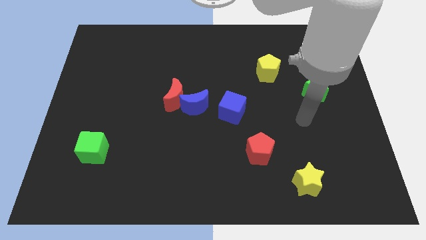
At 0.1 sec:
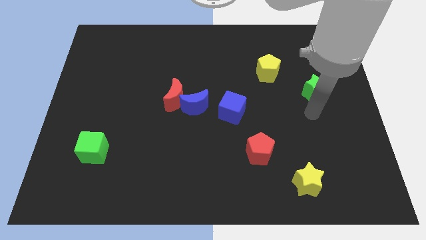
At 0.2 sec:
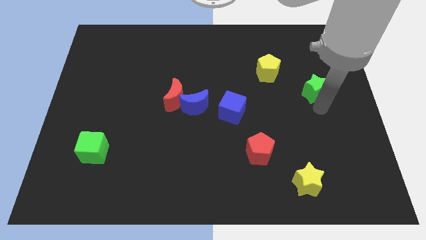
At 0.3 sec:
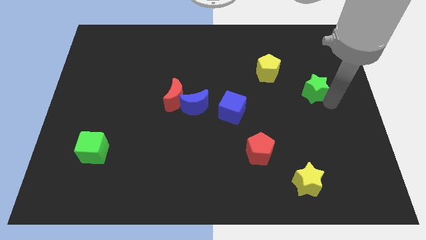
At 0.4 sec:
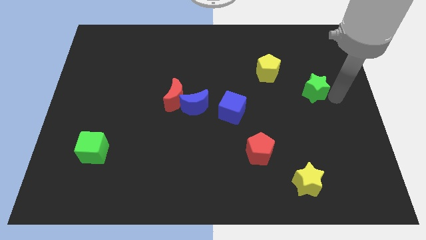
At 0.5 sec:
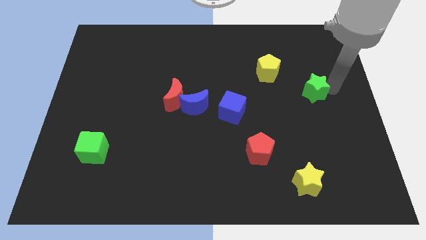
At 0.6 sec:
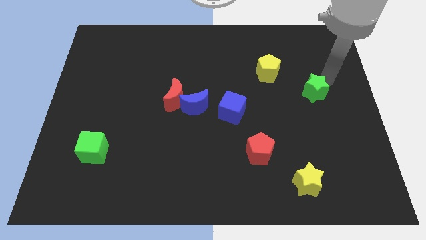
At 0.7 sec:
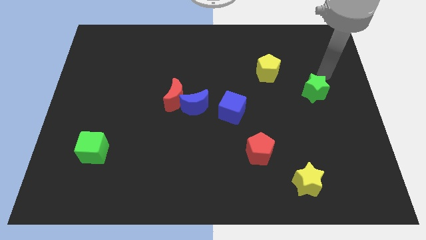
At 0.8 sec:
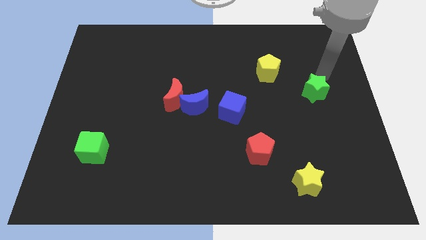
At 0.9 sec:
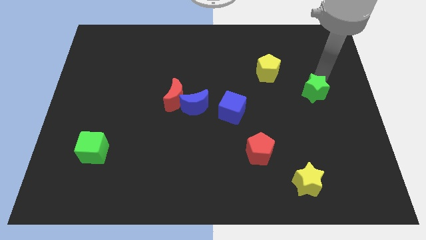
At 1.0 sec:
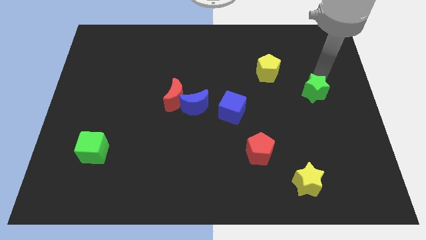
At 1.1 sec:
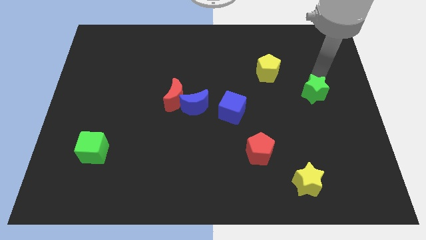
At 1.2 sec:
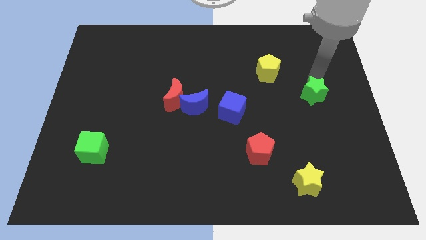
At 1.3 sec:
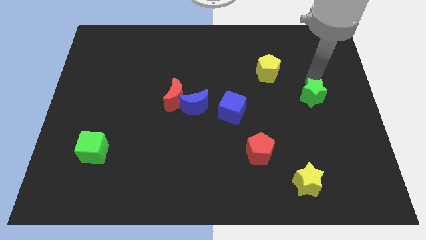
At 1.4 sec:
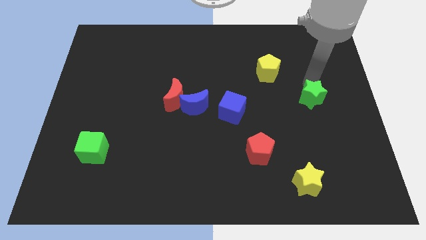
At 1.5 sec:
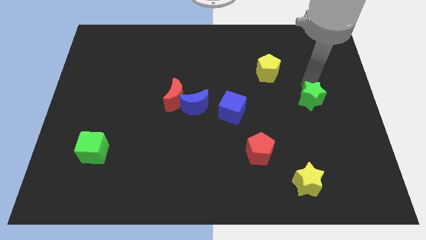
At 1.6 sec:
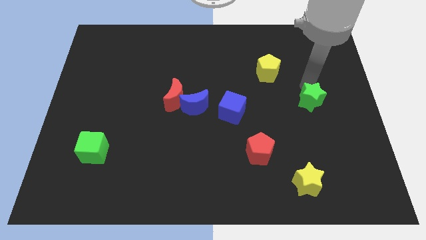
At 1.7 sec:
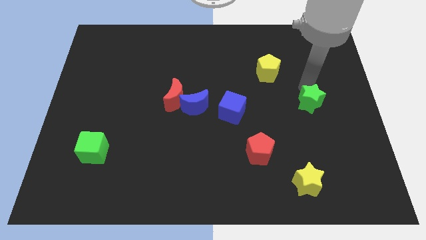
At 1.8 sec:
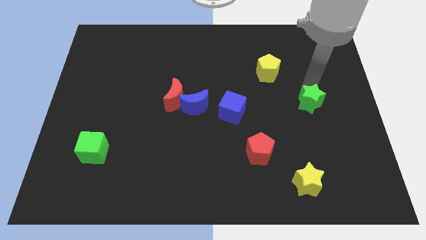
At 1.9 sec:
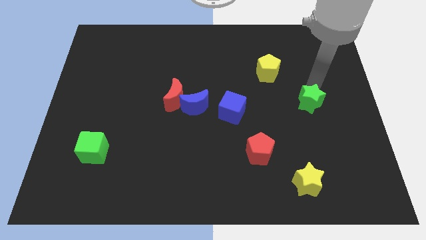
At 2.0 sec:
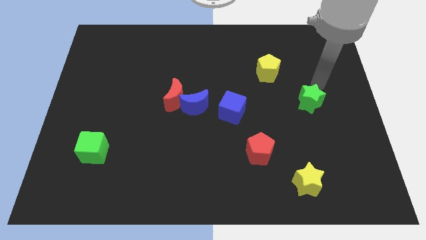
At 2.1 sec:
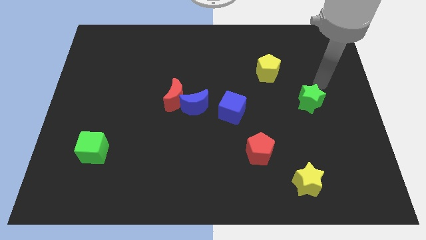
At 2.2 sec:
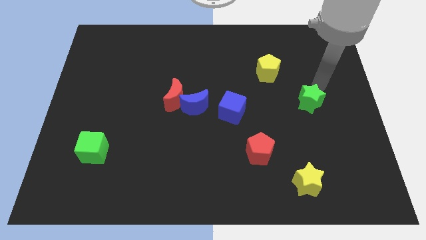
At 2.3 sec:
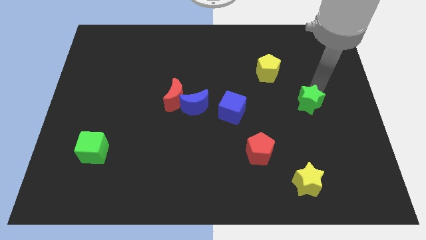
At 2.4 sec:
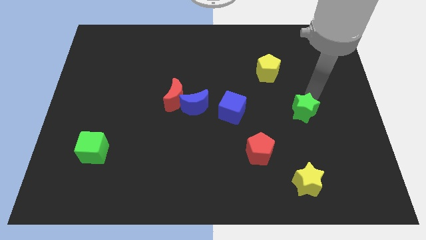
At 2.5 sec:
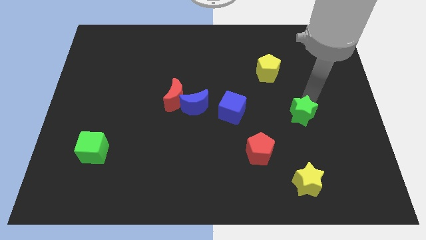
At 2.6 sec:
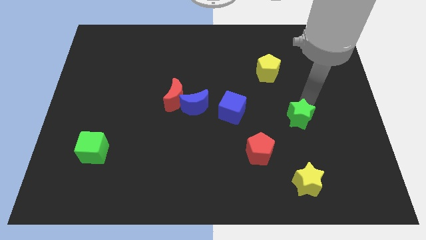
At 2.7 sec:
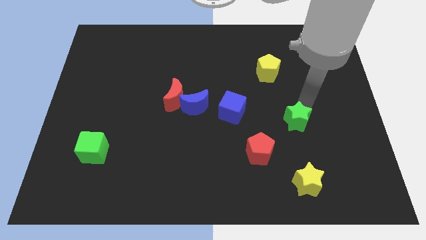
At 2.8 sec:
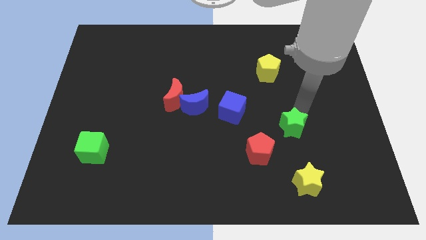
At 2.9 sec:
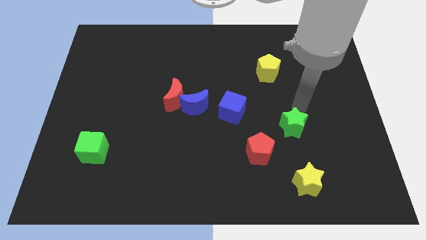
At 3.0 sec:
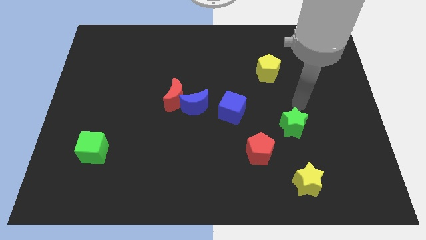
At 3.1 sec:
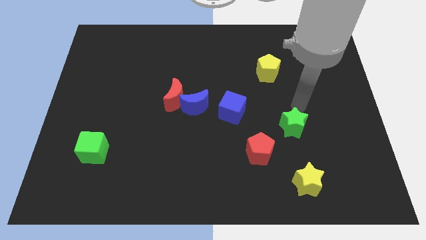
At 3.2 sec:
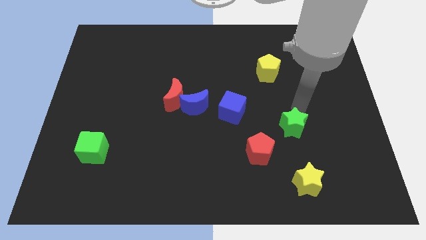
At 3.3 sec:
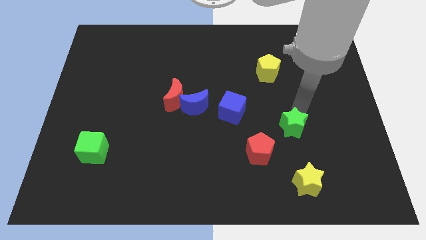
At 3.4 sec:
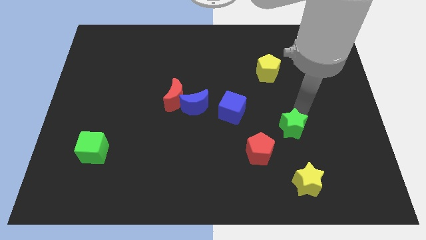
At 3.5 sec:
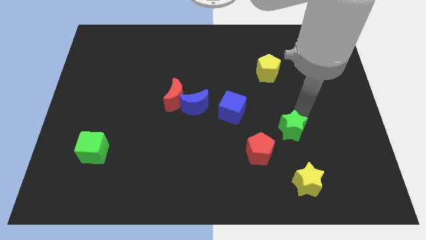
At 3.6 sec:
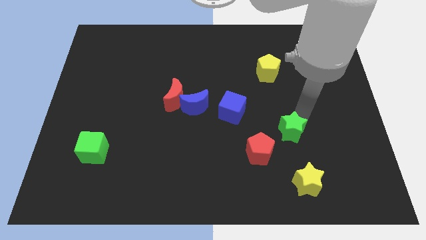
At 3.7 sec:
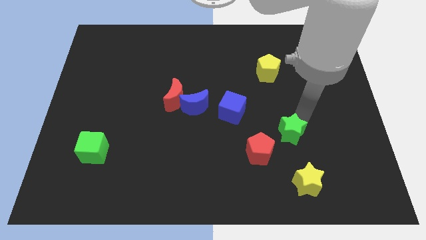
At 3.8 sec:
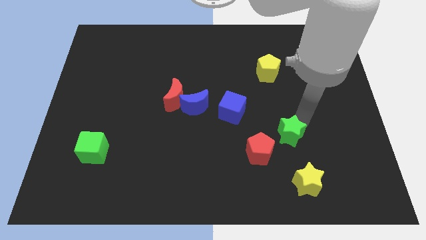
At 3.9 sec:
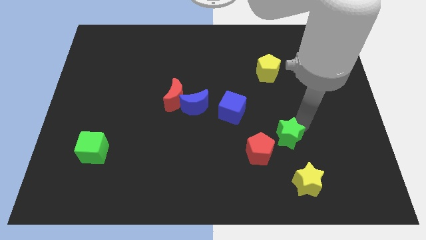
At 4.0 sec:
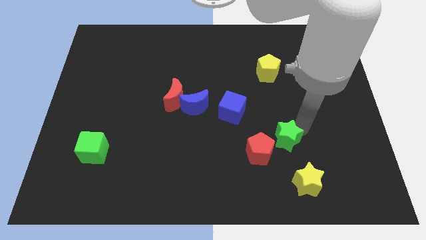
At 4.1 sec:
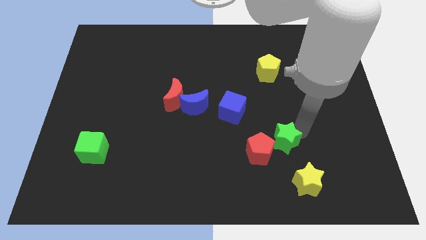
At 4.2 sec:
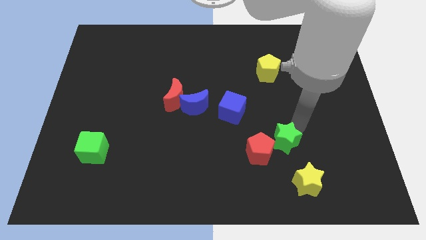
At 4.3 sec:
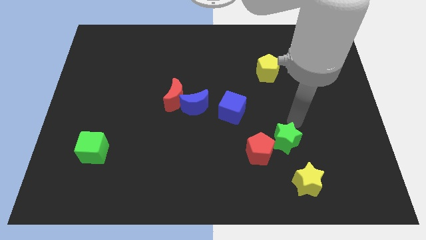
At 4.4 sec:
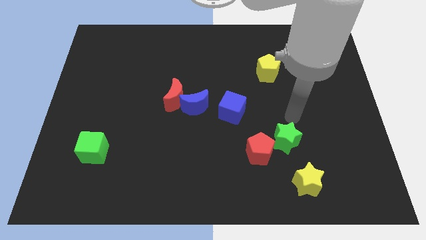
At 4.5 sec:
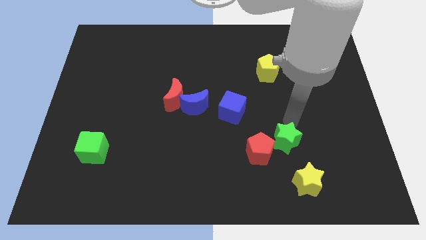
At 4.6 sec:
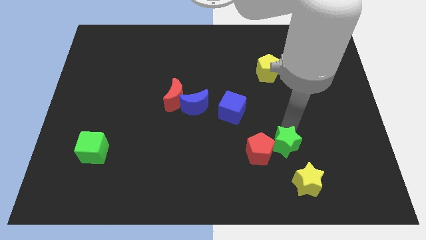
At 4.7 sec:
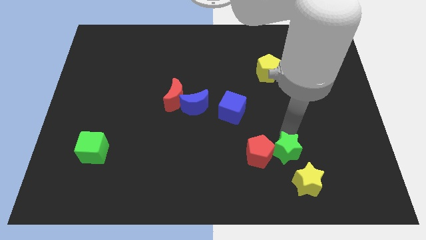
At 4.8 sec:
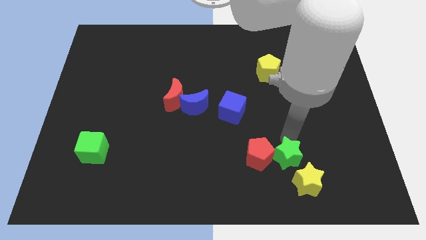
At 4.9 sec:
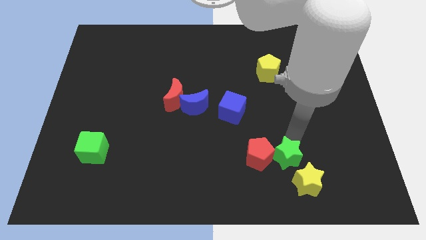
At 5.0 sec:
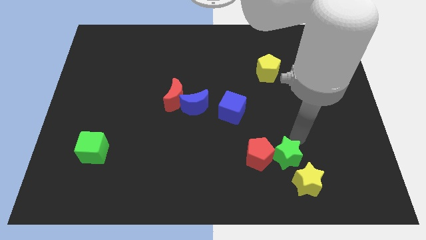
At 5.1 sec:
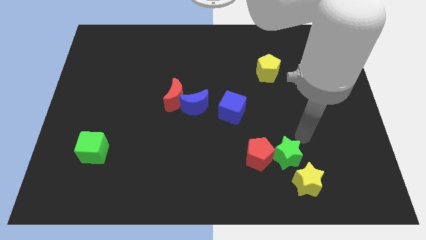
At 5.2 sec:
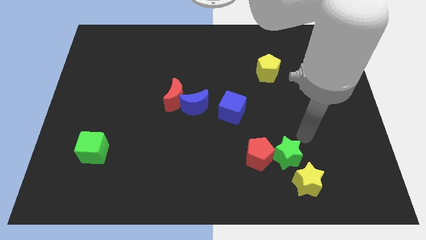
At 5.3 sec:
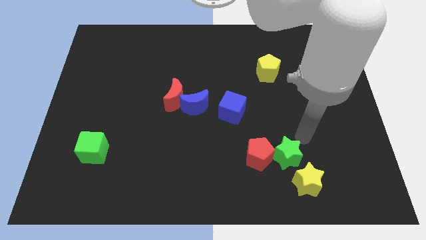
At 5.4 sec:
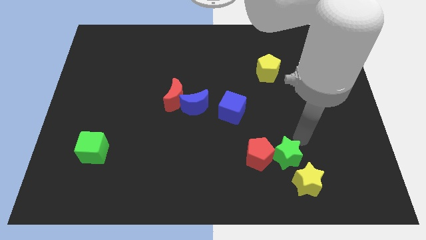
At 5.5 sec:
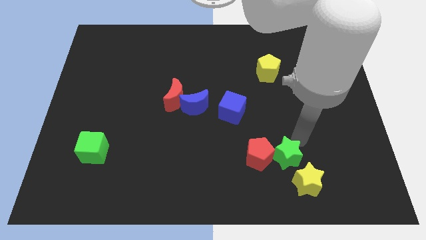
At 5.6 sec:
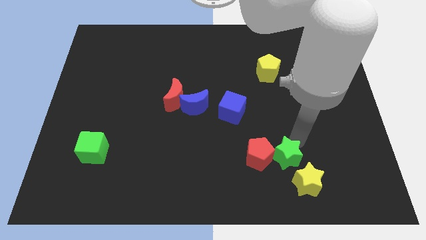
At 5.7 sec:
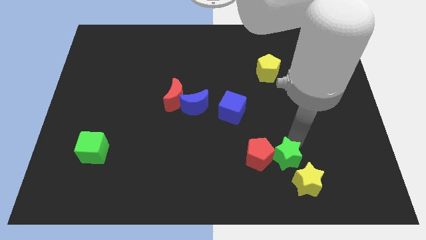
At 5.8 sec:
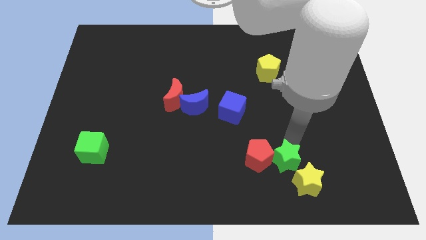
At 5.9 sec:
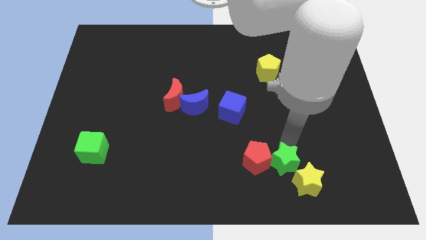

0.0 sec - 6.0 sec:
slide the green star just left of the yellow star

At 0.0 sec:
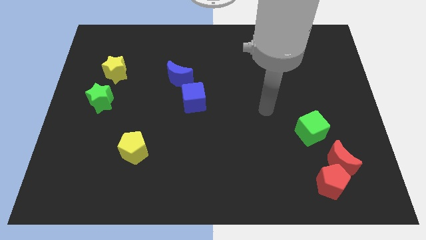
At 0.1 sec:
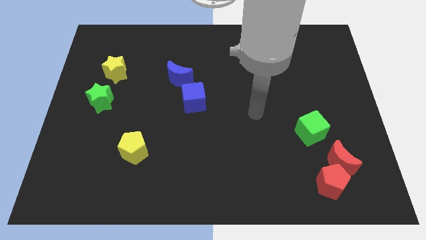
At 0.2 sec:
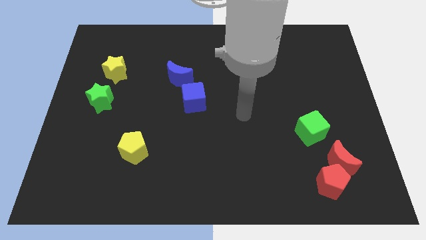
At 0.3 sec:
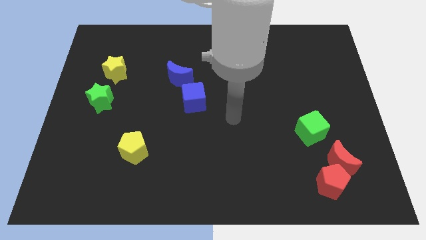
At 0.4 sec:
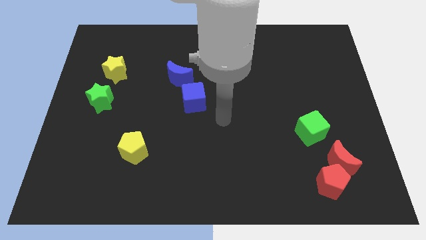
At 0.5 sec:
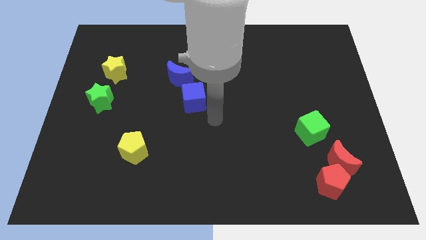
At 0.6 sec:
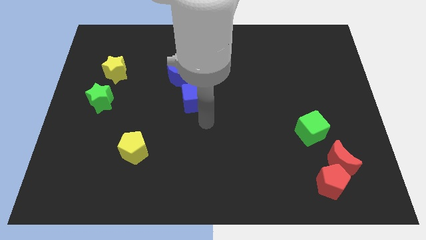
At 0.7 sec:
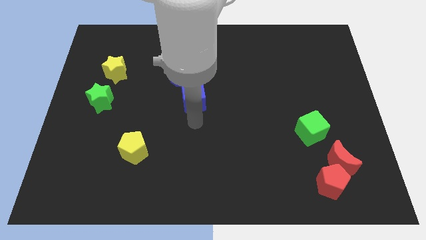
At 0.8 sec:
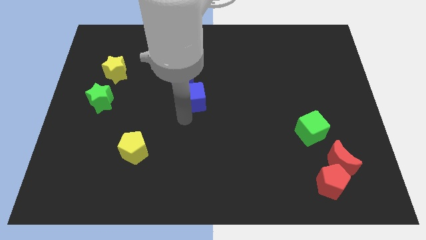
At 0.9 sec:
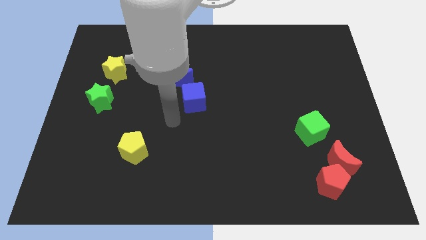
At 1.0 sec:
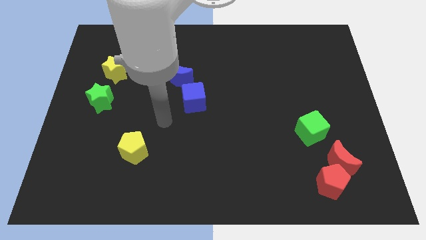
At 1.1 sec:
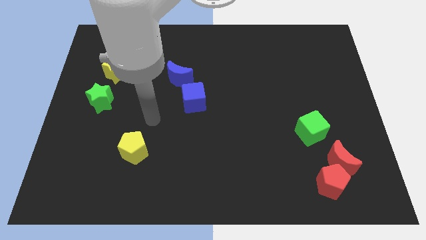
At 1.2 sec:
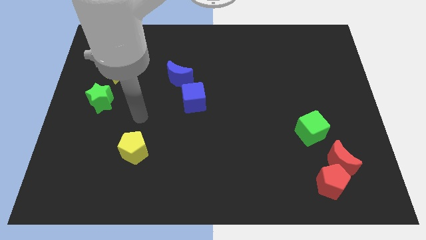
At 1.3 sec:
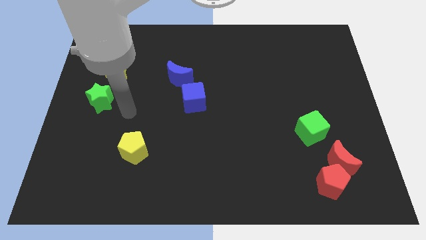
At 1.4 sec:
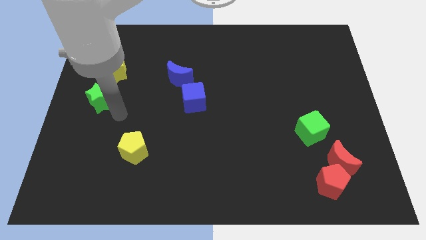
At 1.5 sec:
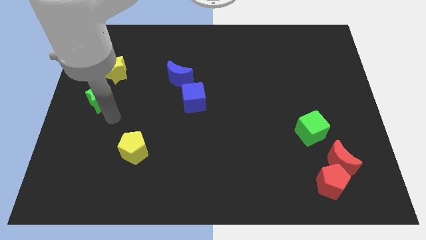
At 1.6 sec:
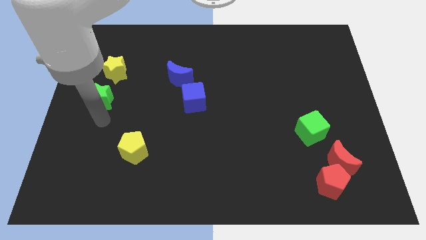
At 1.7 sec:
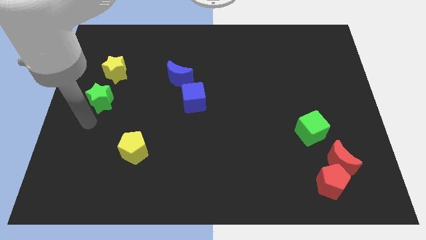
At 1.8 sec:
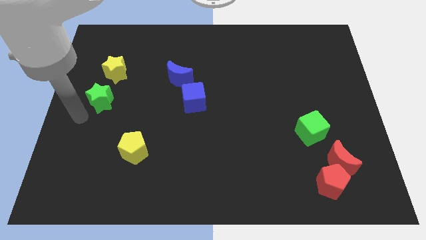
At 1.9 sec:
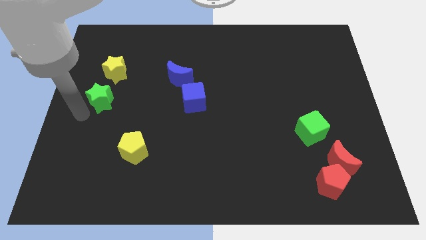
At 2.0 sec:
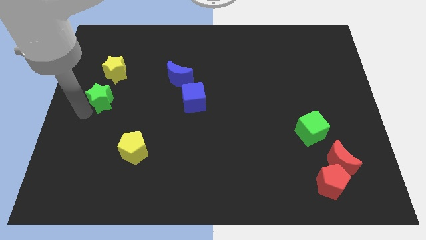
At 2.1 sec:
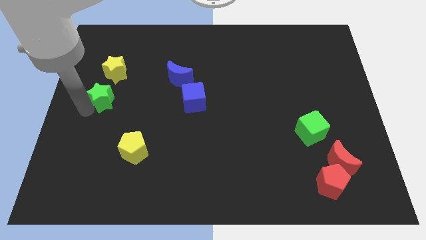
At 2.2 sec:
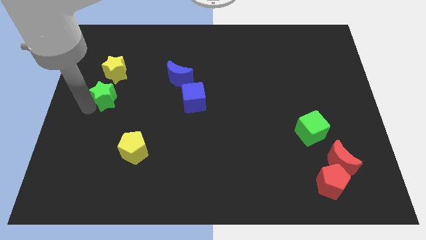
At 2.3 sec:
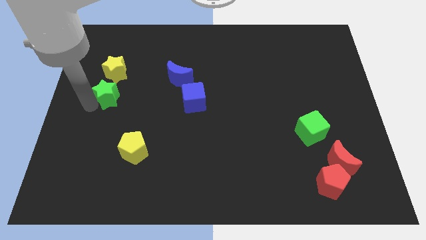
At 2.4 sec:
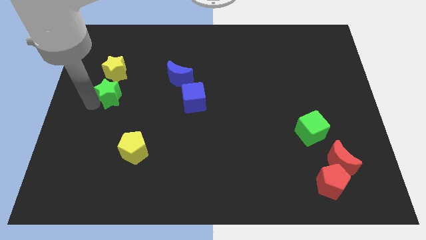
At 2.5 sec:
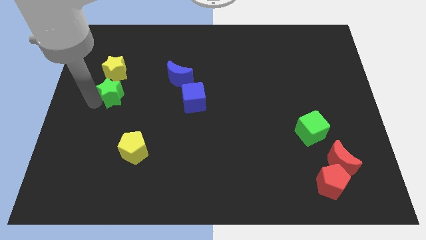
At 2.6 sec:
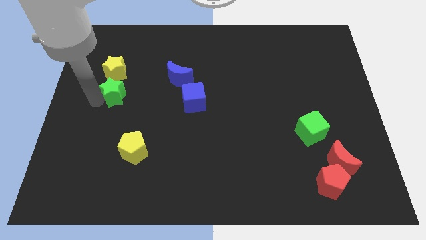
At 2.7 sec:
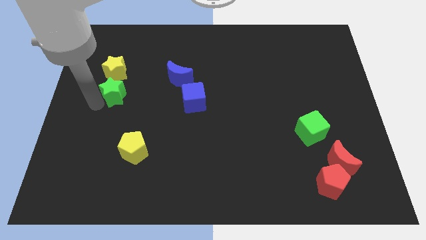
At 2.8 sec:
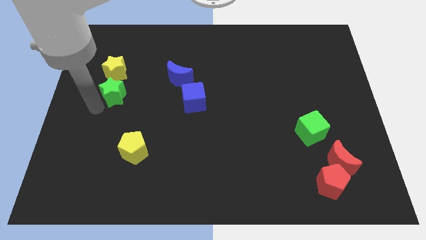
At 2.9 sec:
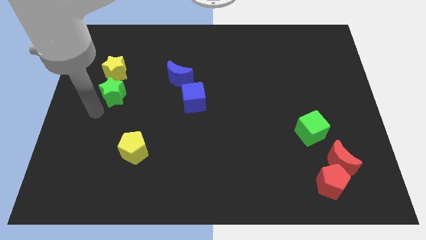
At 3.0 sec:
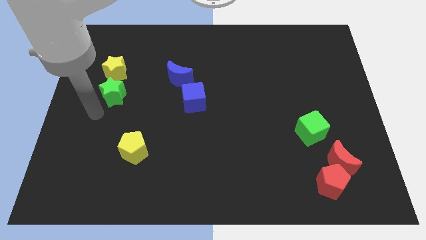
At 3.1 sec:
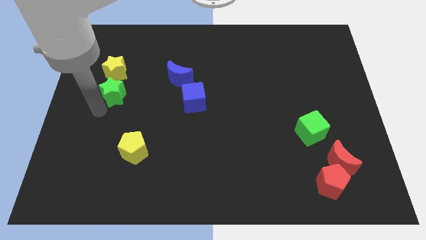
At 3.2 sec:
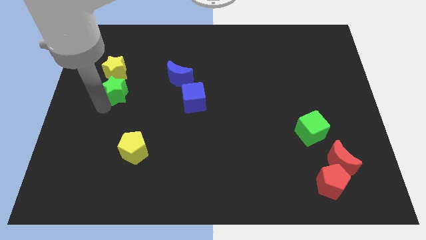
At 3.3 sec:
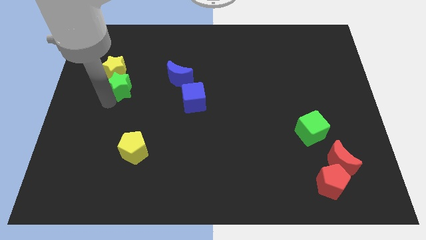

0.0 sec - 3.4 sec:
put the green star to the left of the blue moon
